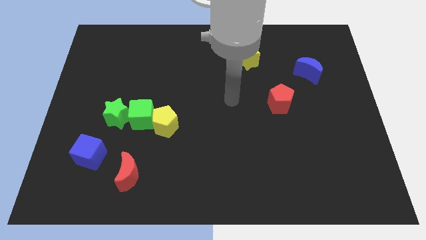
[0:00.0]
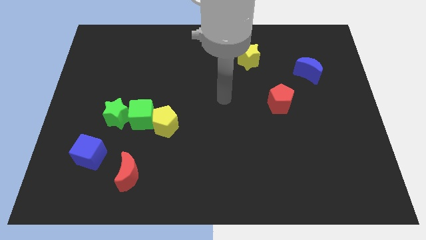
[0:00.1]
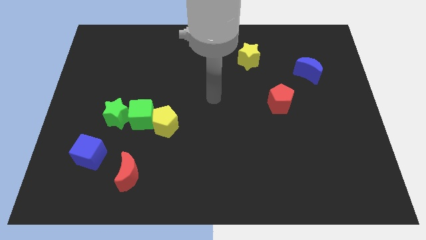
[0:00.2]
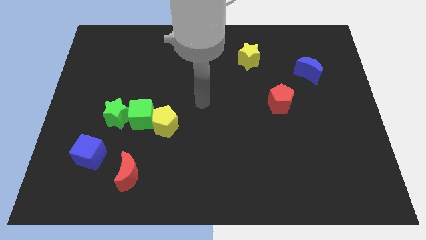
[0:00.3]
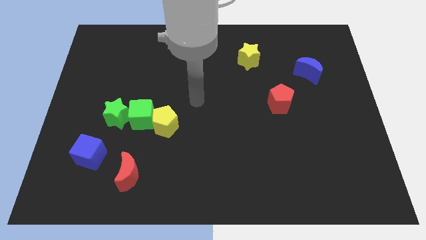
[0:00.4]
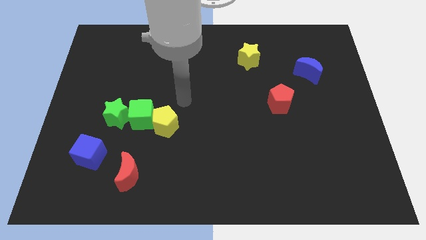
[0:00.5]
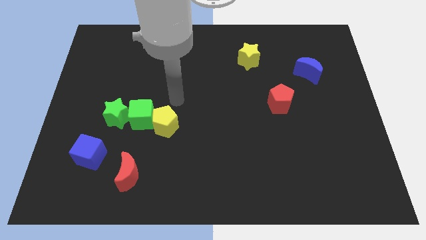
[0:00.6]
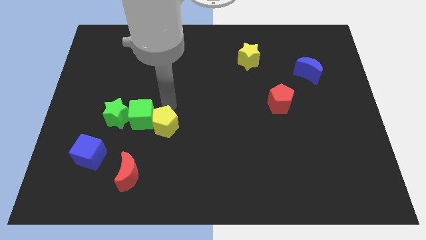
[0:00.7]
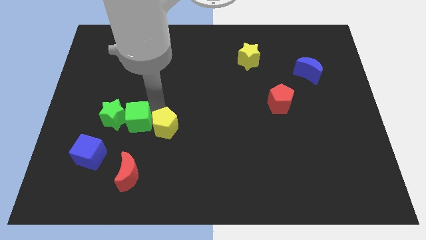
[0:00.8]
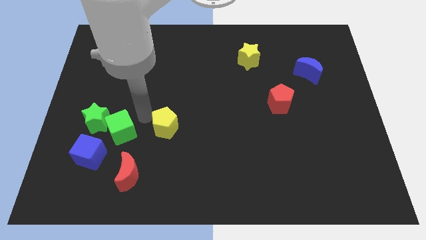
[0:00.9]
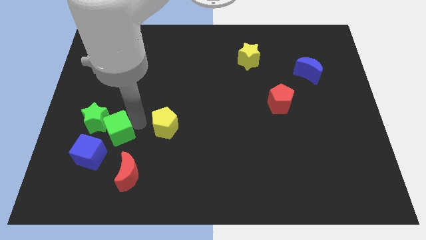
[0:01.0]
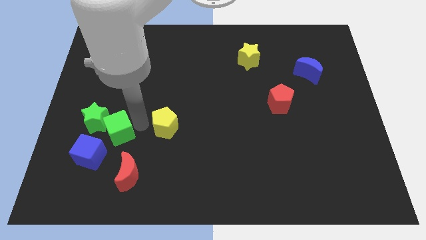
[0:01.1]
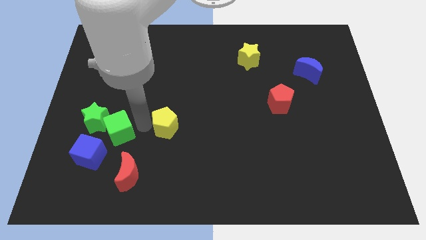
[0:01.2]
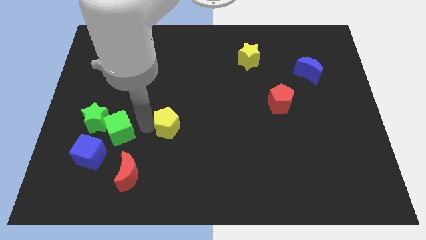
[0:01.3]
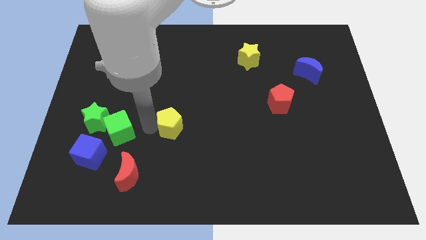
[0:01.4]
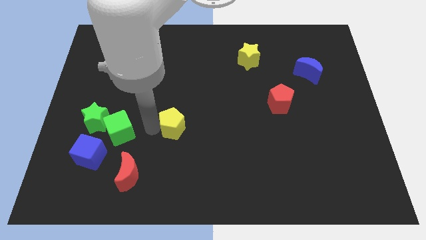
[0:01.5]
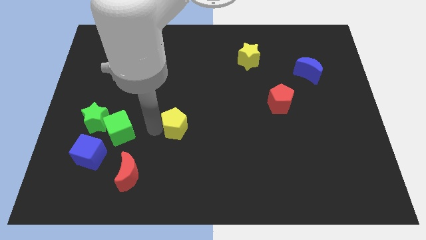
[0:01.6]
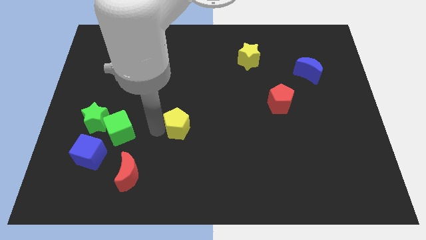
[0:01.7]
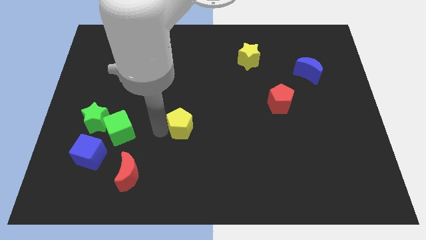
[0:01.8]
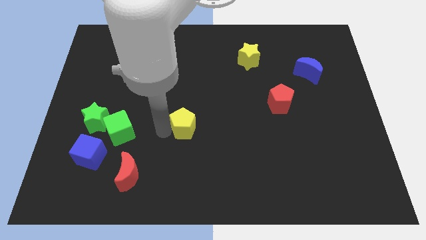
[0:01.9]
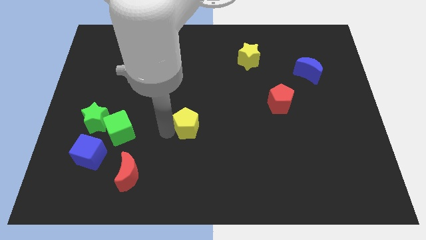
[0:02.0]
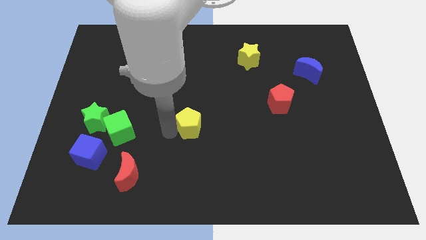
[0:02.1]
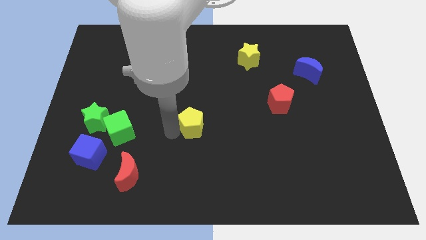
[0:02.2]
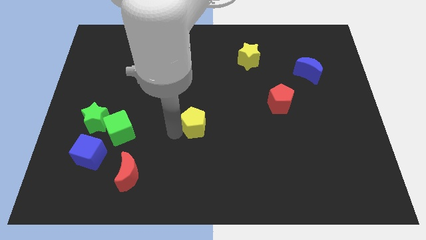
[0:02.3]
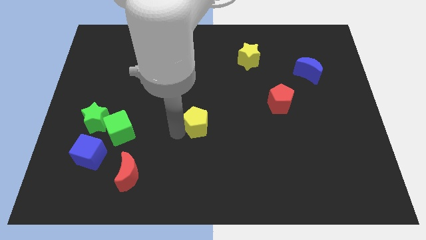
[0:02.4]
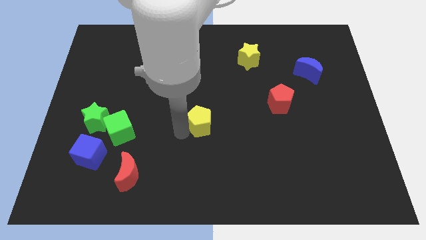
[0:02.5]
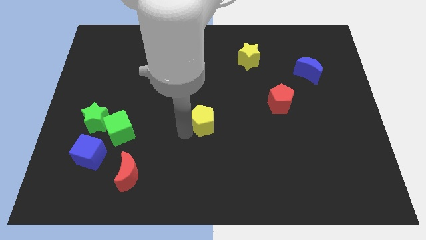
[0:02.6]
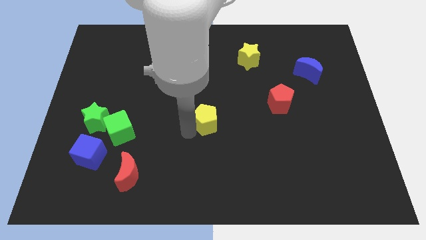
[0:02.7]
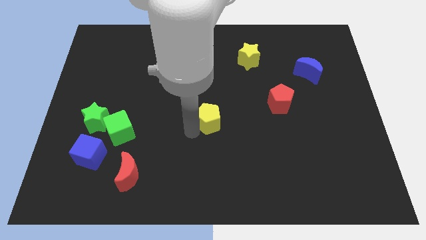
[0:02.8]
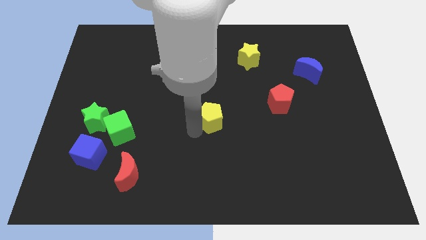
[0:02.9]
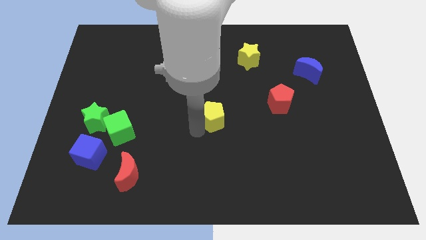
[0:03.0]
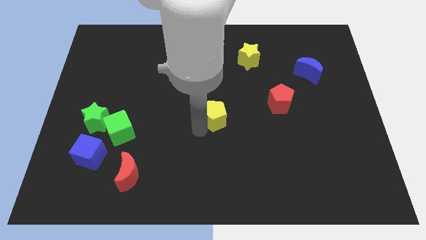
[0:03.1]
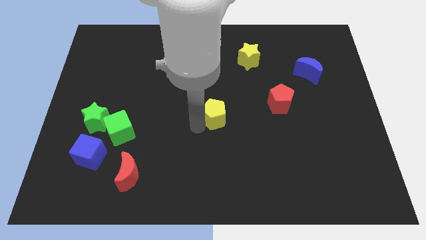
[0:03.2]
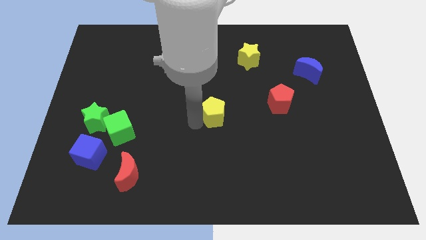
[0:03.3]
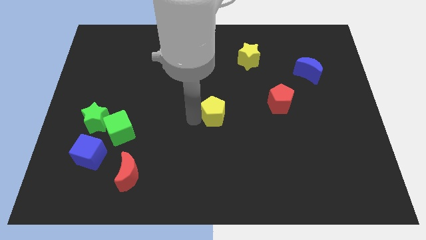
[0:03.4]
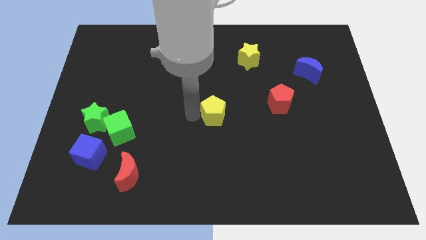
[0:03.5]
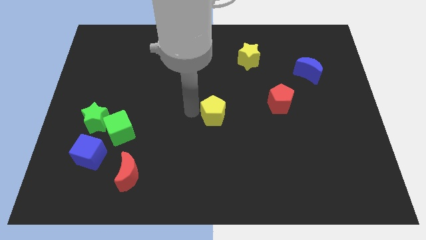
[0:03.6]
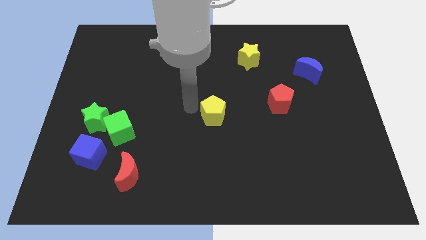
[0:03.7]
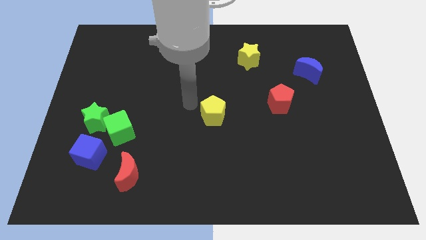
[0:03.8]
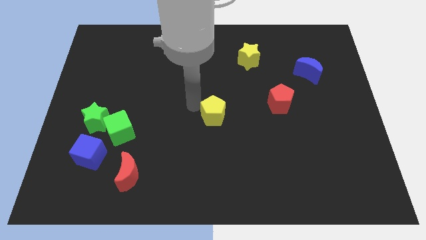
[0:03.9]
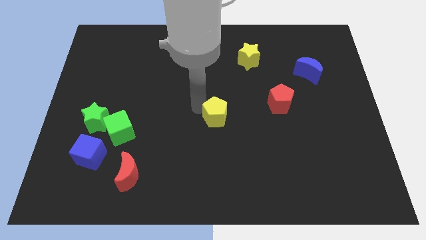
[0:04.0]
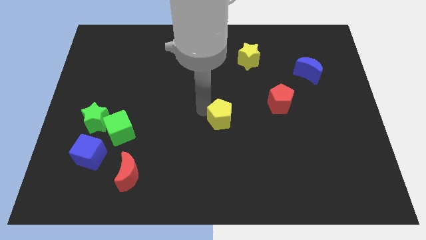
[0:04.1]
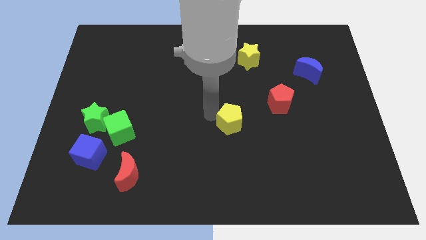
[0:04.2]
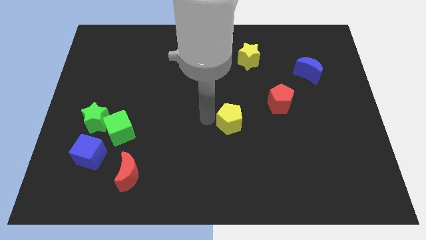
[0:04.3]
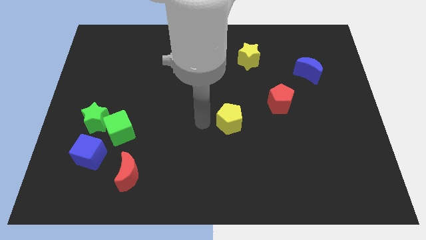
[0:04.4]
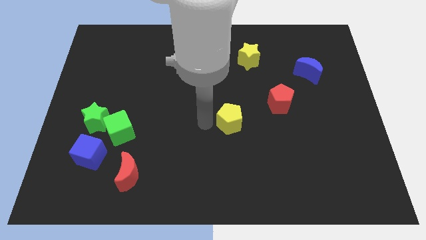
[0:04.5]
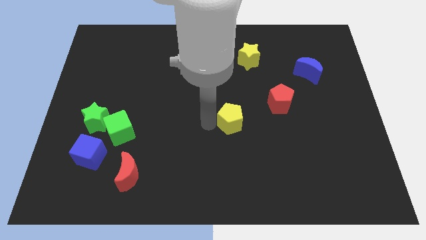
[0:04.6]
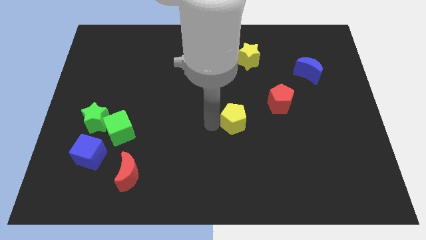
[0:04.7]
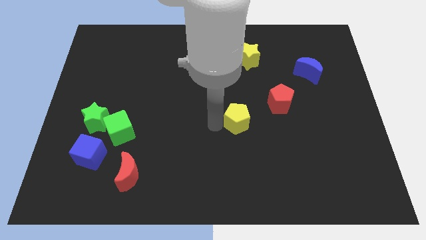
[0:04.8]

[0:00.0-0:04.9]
slide the yellow pentagon to the bottom left side of the red pentagon

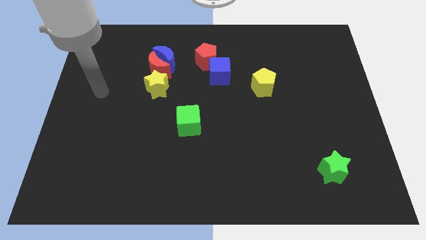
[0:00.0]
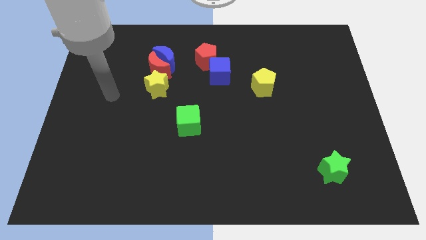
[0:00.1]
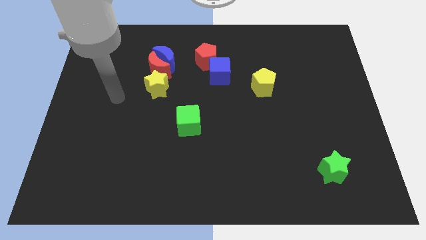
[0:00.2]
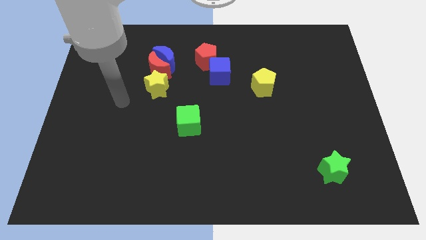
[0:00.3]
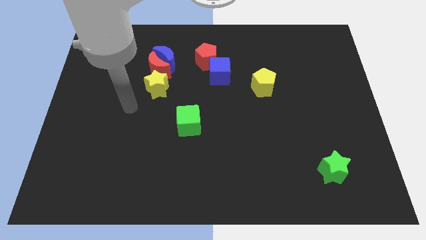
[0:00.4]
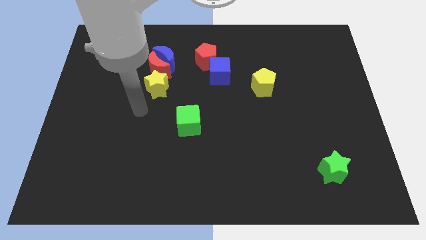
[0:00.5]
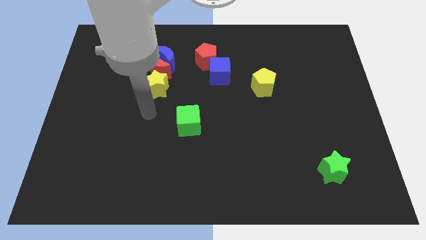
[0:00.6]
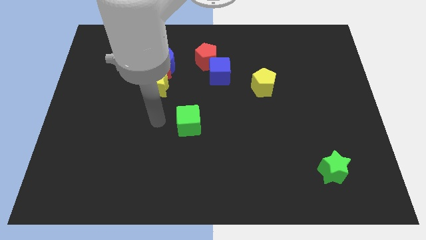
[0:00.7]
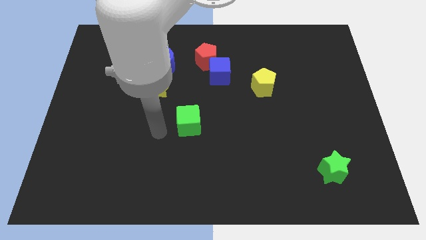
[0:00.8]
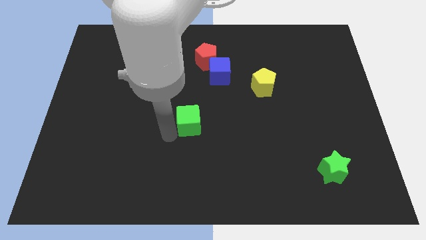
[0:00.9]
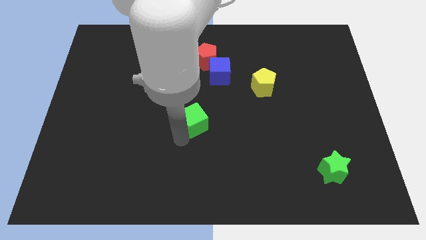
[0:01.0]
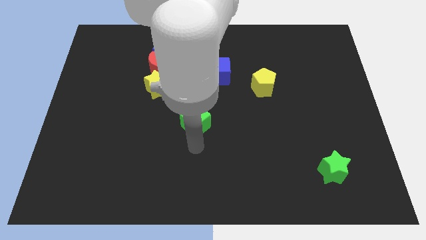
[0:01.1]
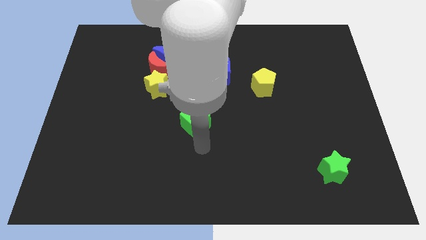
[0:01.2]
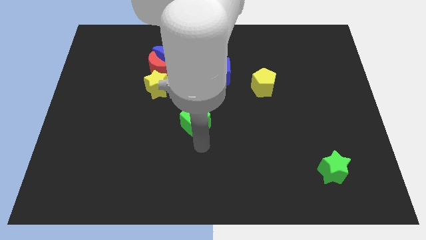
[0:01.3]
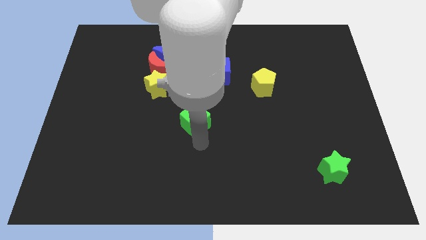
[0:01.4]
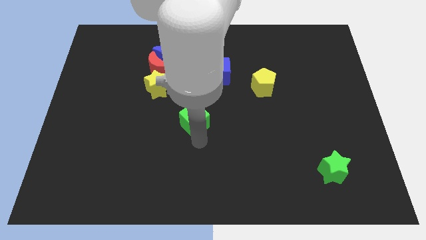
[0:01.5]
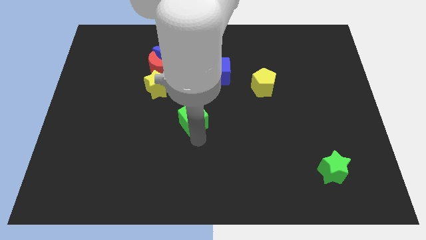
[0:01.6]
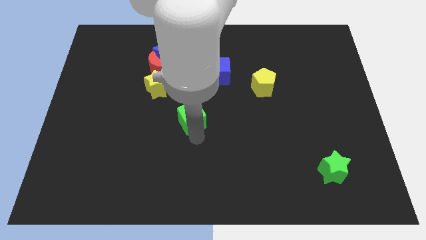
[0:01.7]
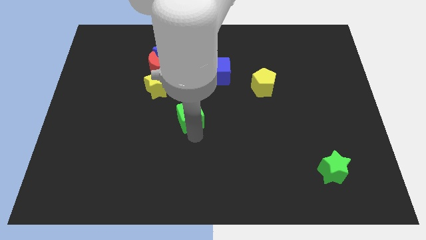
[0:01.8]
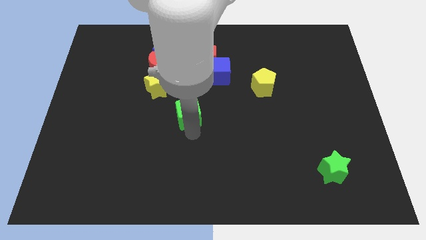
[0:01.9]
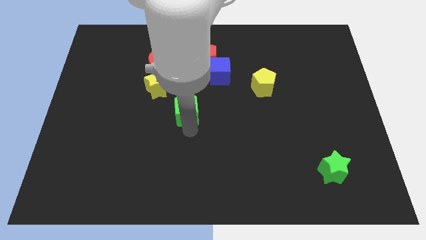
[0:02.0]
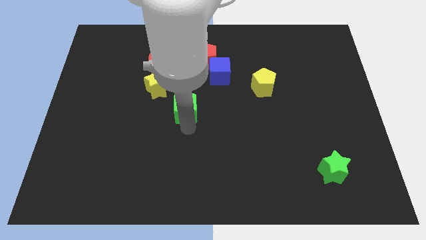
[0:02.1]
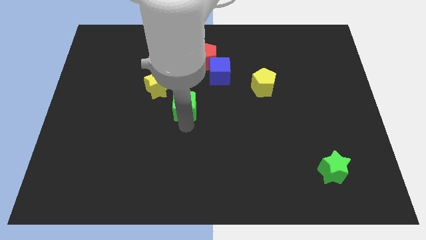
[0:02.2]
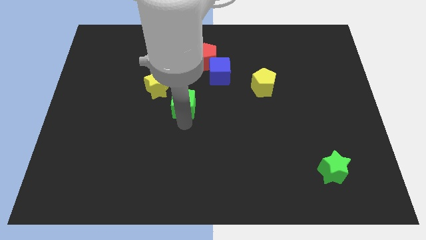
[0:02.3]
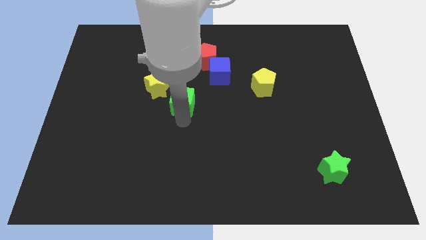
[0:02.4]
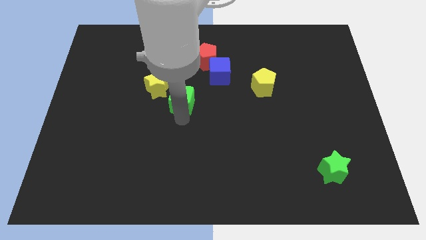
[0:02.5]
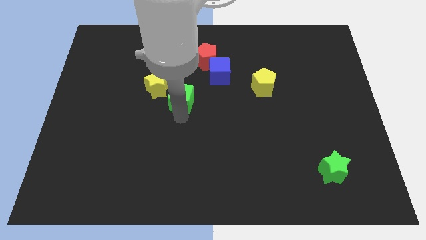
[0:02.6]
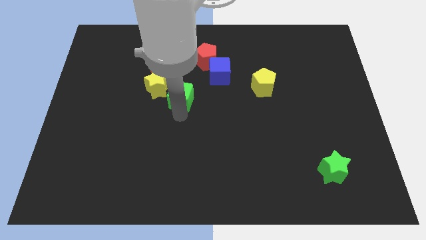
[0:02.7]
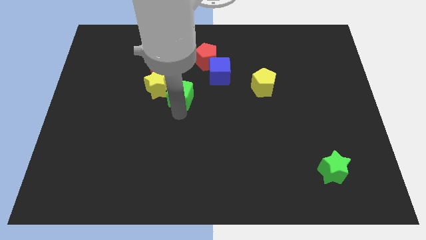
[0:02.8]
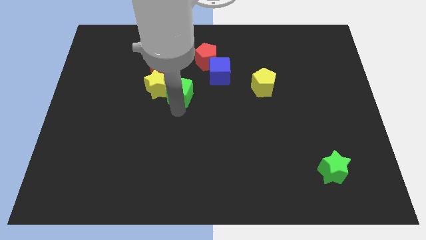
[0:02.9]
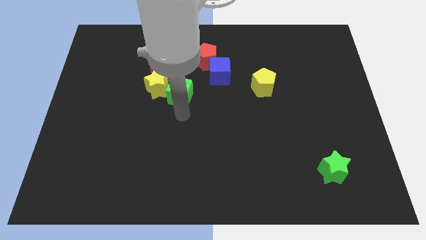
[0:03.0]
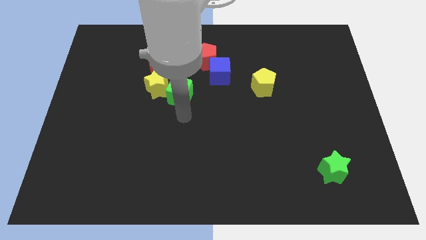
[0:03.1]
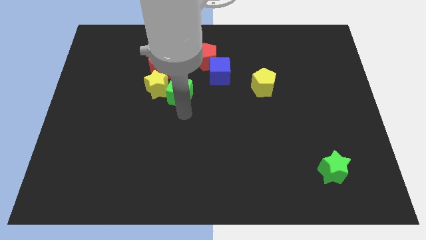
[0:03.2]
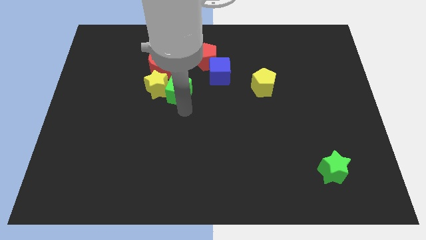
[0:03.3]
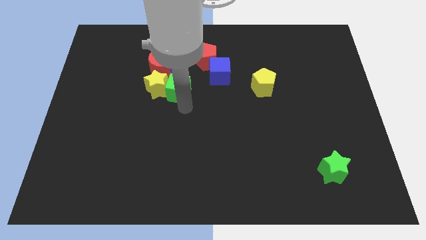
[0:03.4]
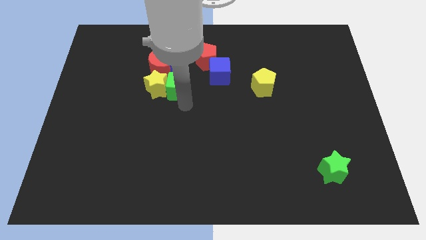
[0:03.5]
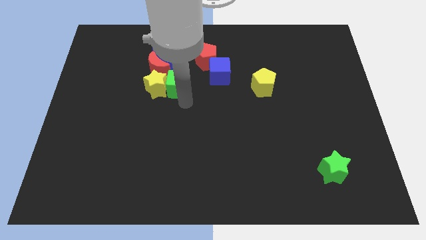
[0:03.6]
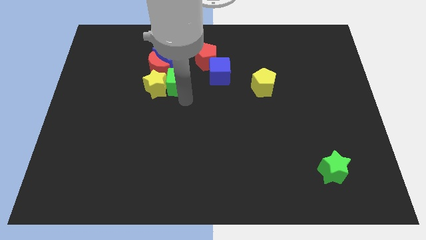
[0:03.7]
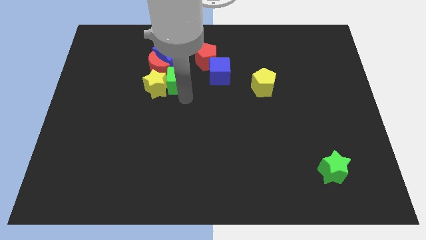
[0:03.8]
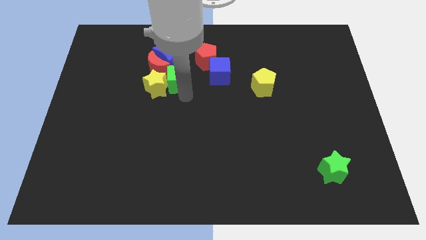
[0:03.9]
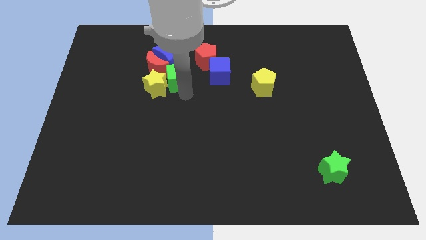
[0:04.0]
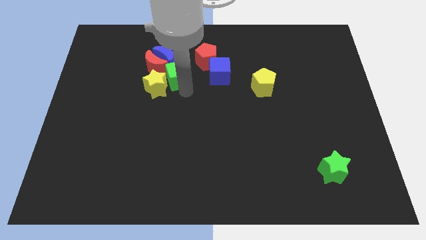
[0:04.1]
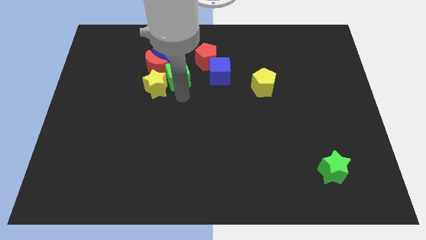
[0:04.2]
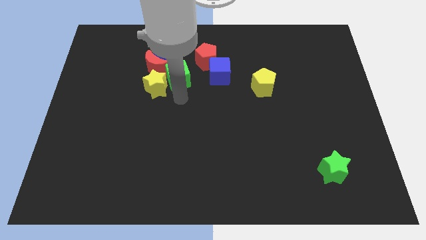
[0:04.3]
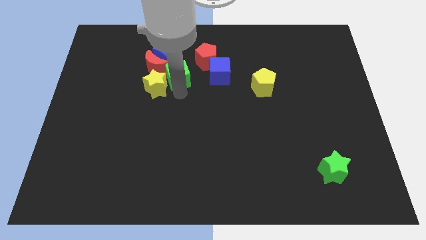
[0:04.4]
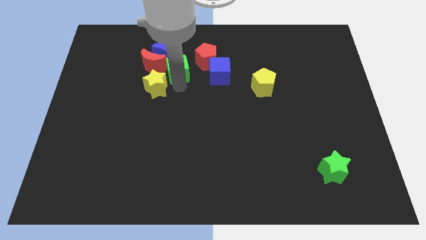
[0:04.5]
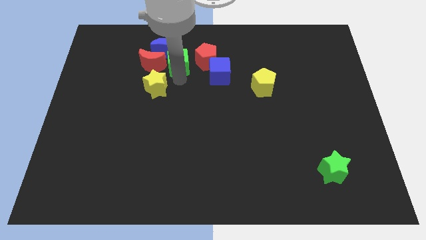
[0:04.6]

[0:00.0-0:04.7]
move the green cube to the top right side of the red moon
